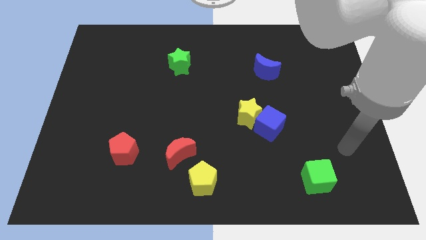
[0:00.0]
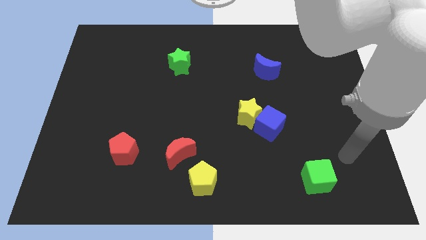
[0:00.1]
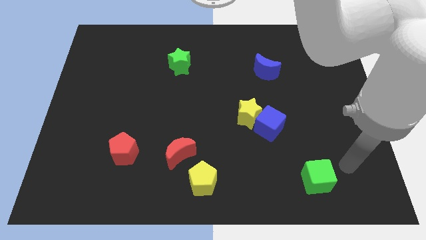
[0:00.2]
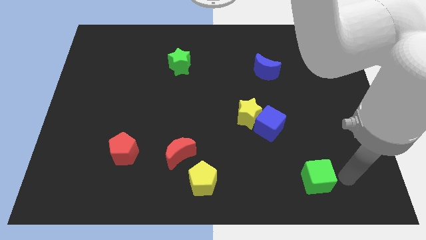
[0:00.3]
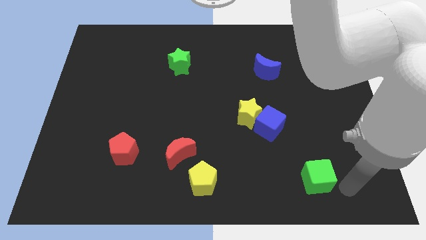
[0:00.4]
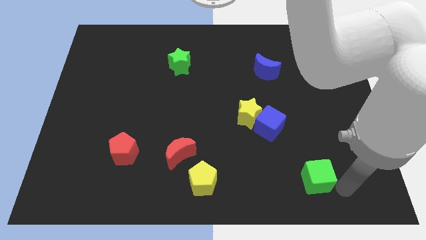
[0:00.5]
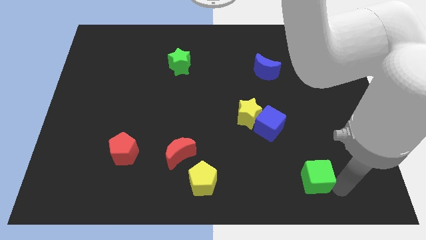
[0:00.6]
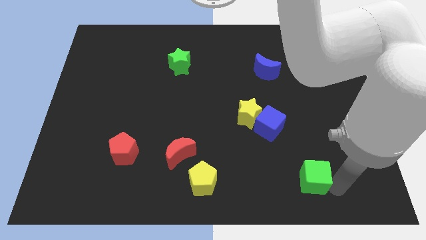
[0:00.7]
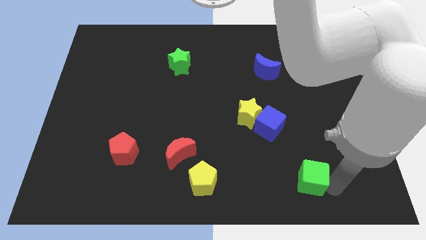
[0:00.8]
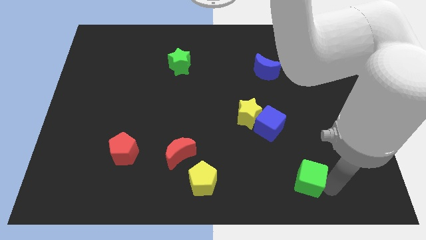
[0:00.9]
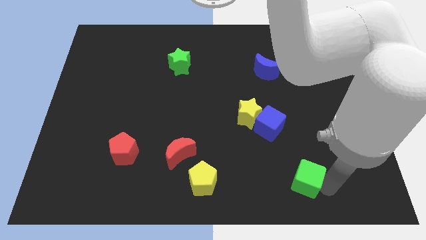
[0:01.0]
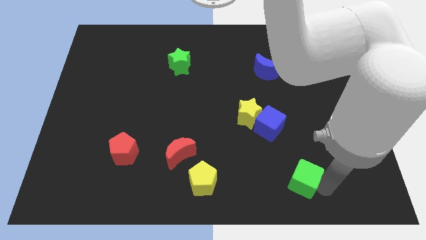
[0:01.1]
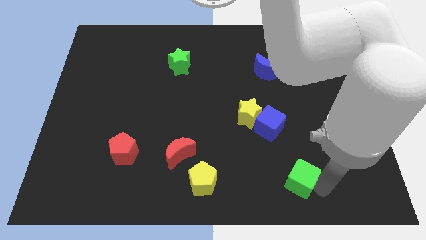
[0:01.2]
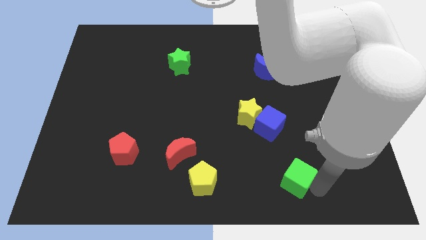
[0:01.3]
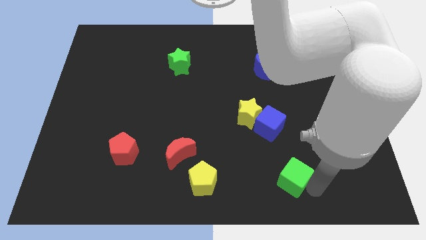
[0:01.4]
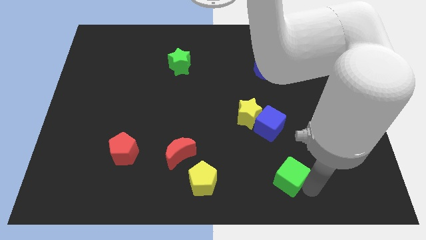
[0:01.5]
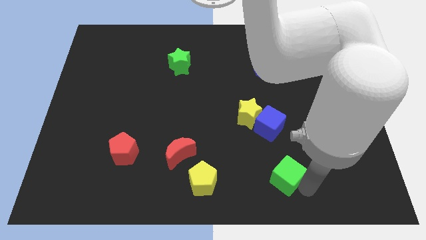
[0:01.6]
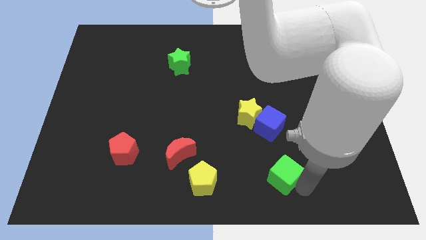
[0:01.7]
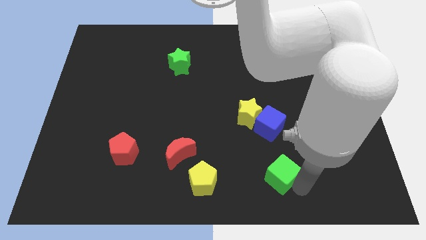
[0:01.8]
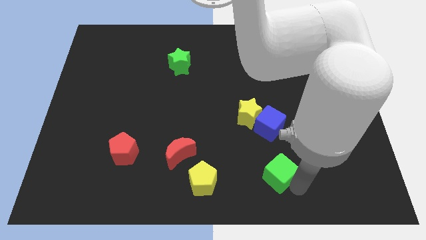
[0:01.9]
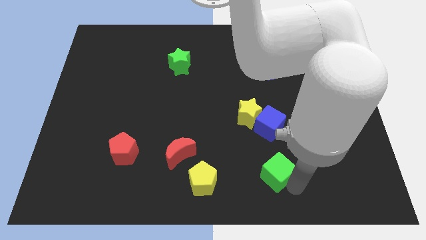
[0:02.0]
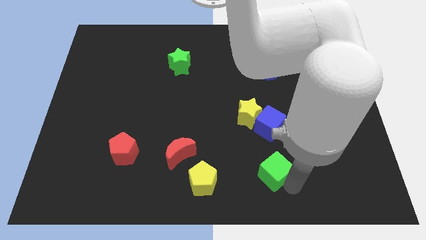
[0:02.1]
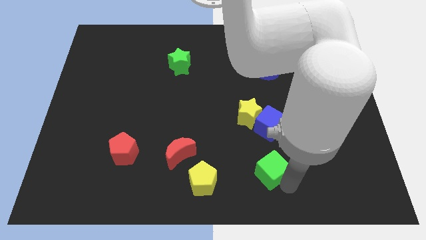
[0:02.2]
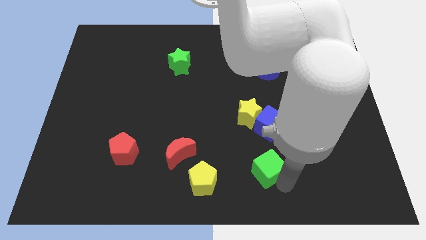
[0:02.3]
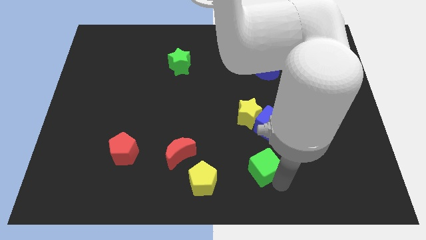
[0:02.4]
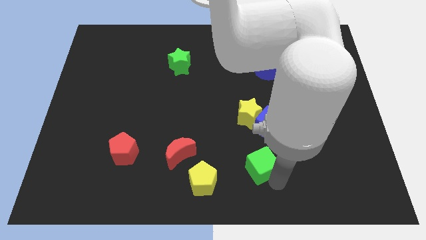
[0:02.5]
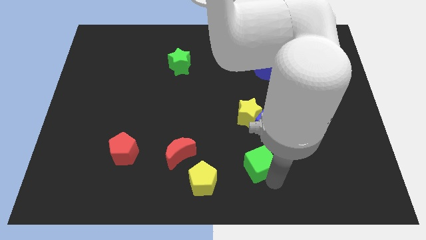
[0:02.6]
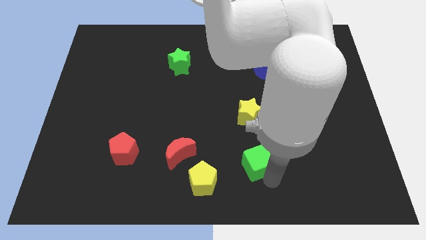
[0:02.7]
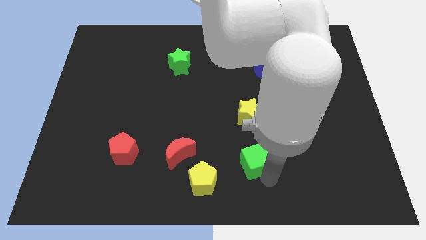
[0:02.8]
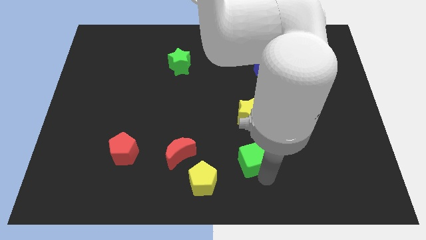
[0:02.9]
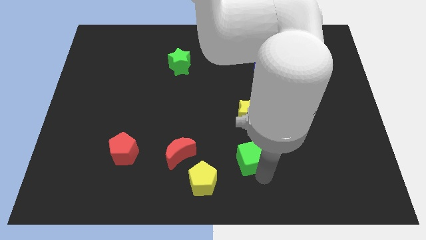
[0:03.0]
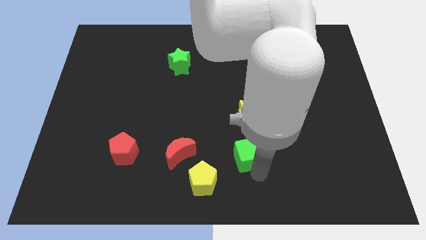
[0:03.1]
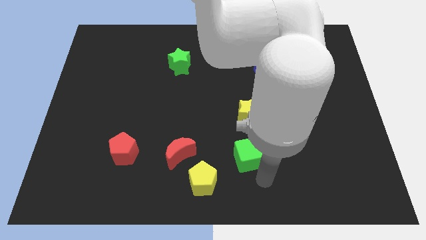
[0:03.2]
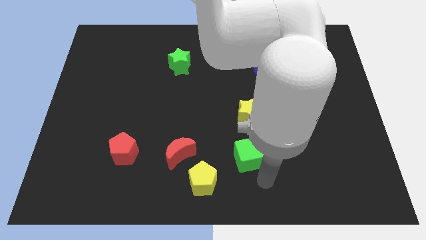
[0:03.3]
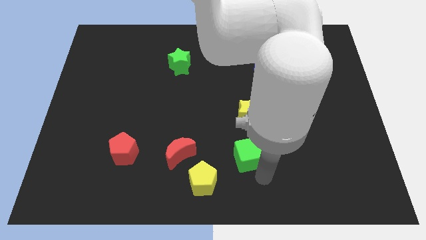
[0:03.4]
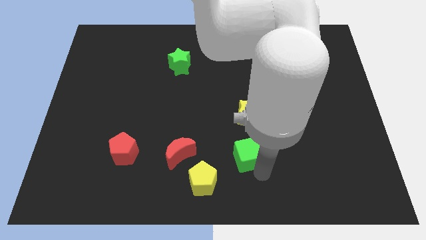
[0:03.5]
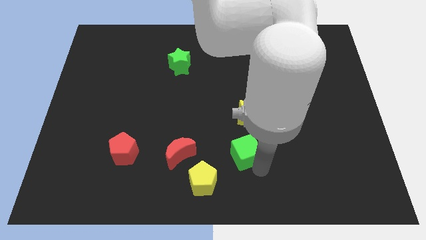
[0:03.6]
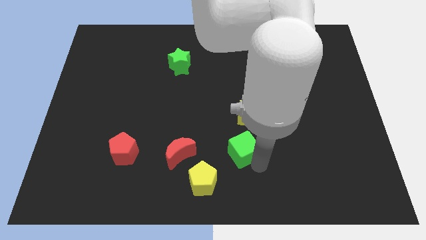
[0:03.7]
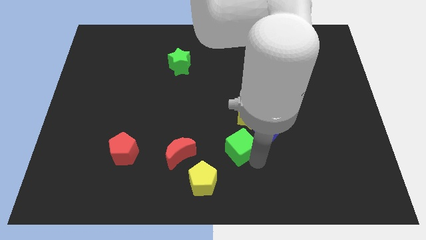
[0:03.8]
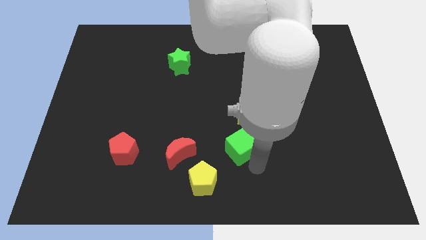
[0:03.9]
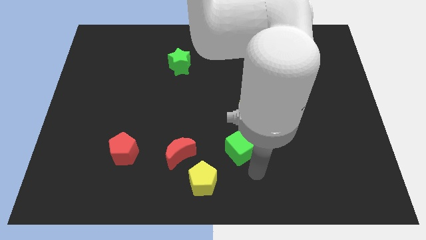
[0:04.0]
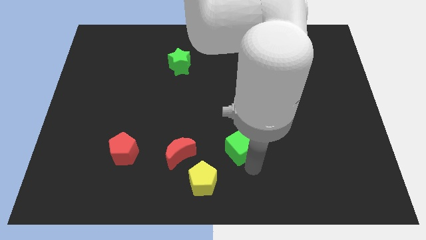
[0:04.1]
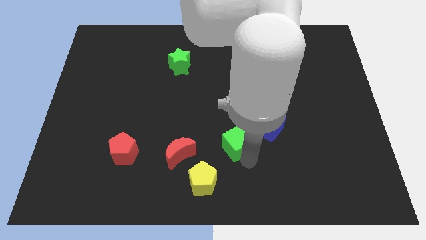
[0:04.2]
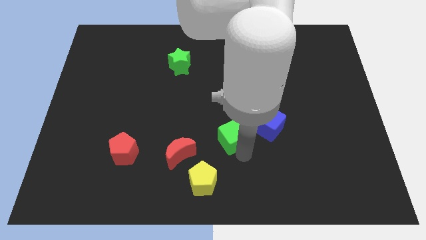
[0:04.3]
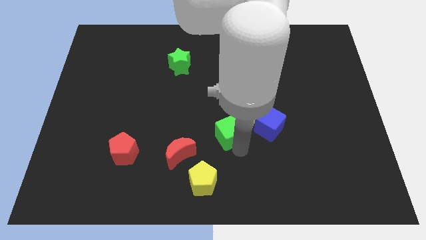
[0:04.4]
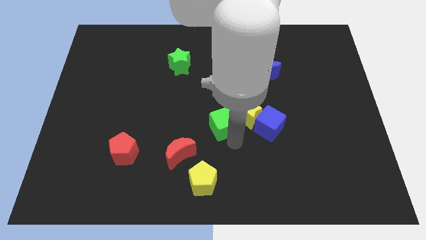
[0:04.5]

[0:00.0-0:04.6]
slide the green cube up and to the left

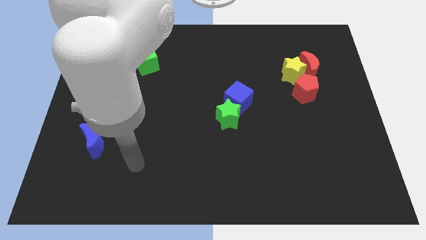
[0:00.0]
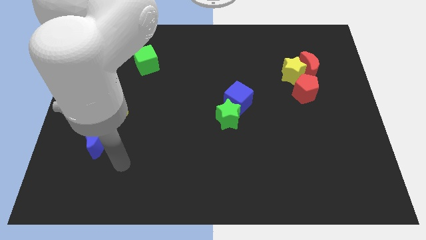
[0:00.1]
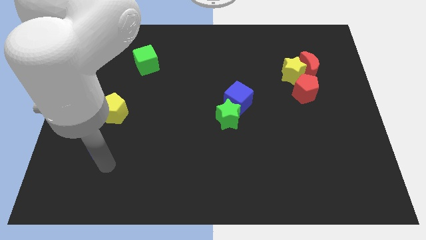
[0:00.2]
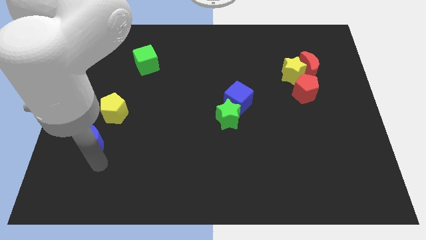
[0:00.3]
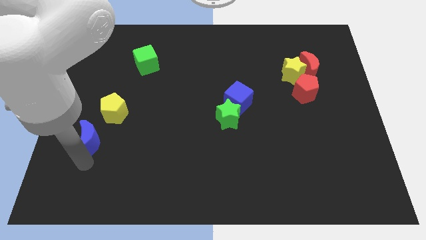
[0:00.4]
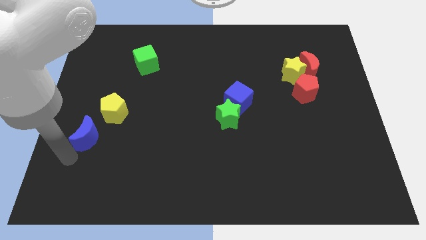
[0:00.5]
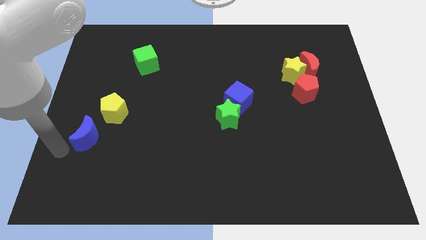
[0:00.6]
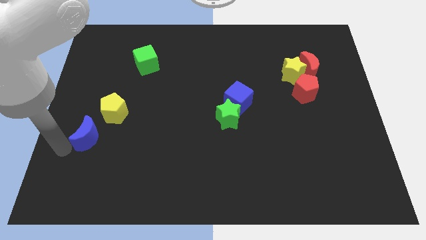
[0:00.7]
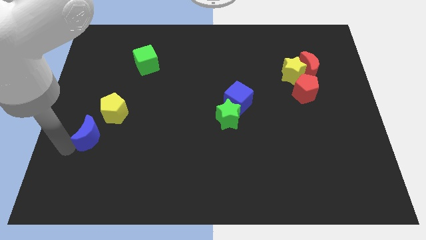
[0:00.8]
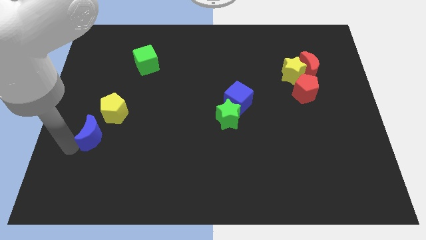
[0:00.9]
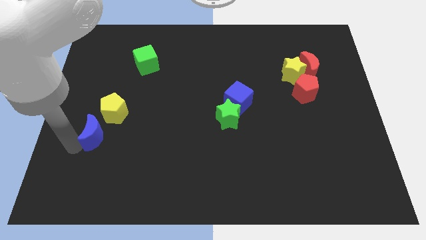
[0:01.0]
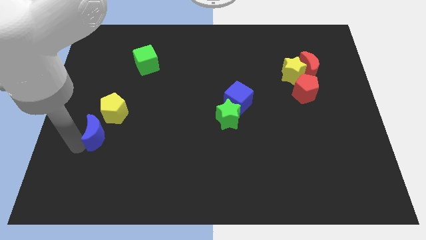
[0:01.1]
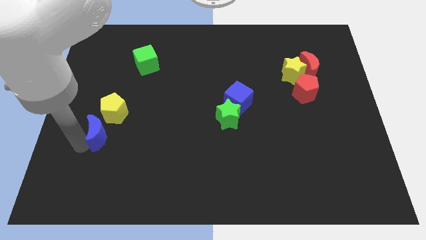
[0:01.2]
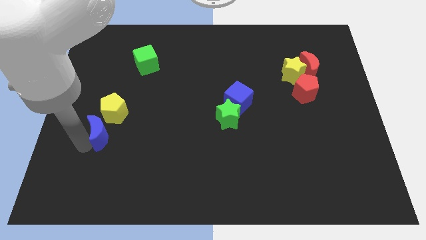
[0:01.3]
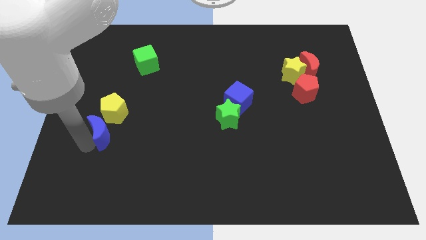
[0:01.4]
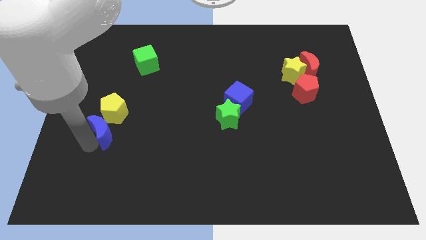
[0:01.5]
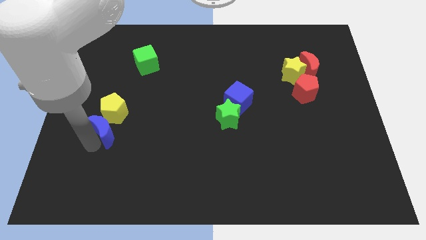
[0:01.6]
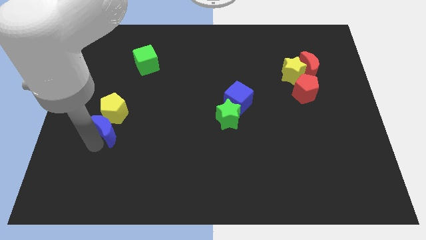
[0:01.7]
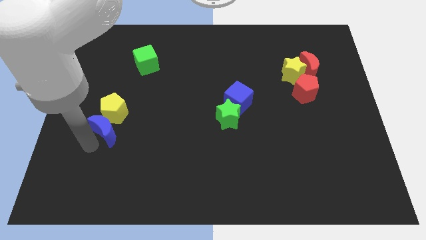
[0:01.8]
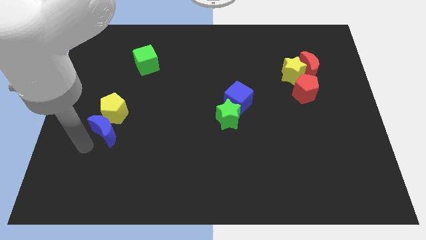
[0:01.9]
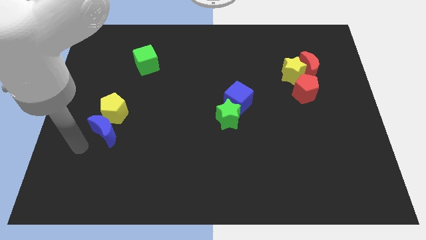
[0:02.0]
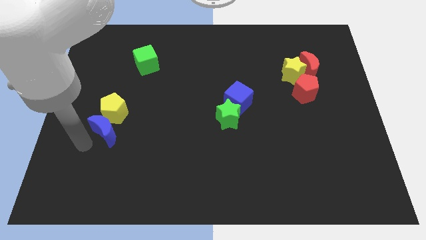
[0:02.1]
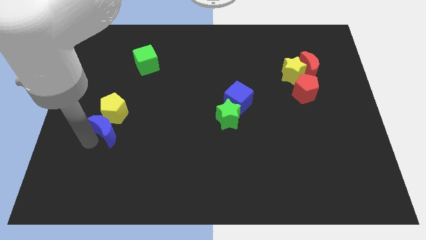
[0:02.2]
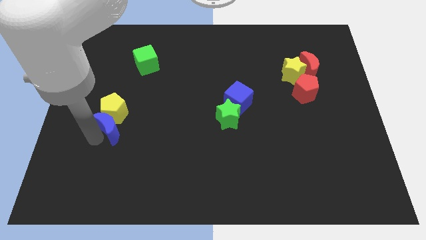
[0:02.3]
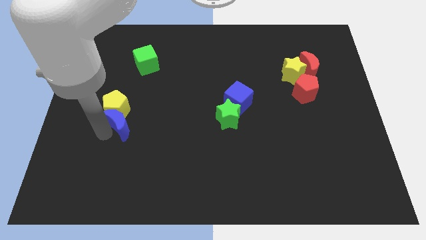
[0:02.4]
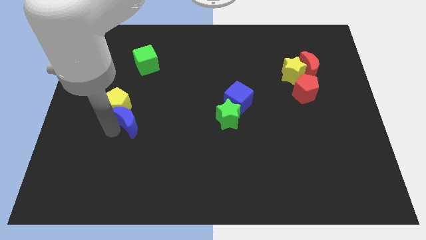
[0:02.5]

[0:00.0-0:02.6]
slightly push the blue moon upwards and then right

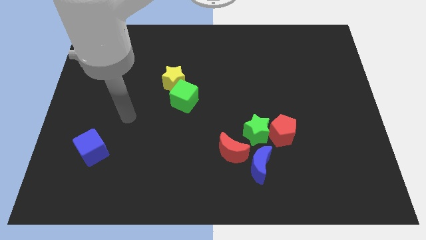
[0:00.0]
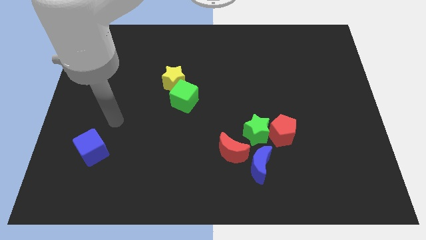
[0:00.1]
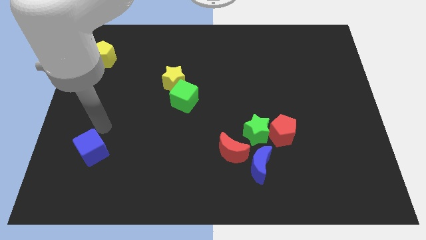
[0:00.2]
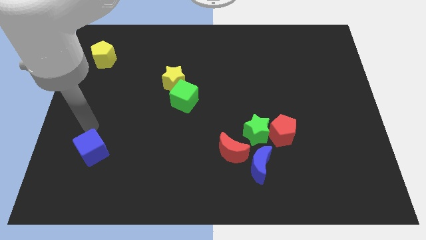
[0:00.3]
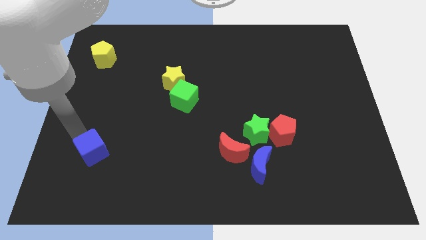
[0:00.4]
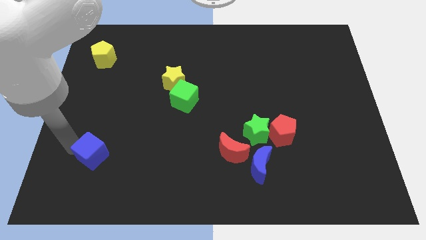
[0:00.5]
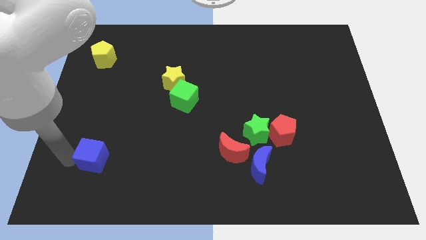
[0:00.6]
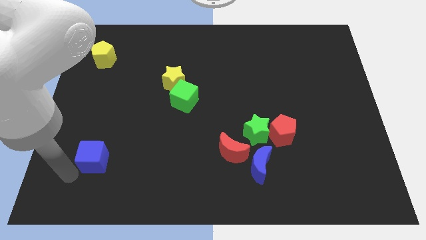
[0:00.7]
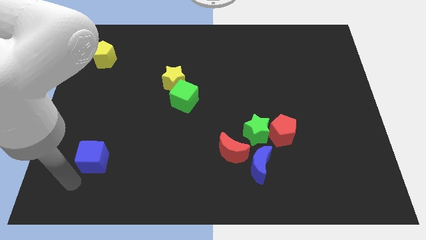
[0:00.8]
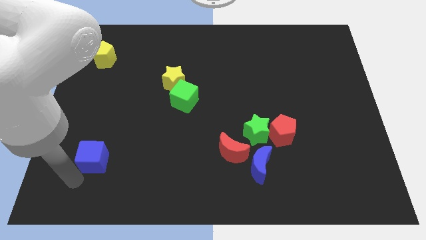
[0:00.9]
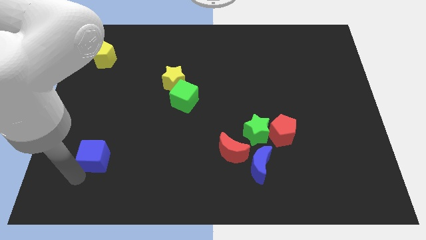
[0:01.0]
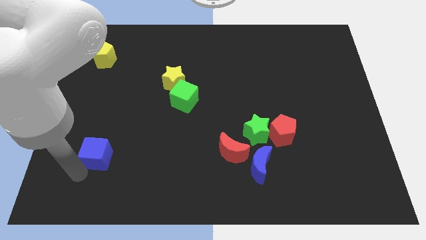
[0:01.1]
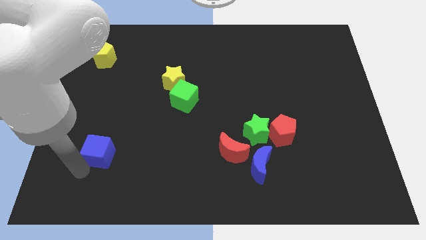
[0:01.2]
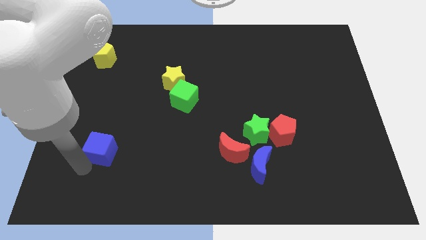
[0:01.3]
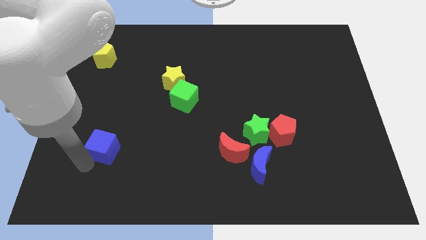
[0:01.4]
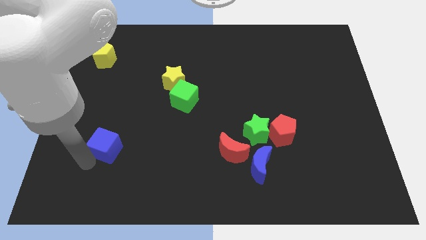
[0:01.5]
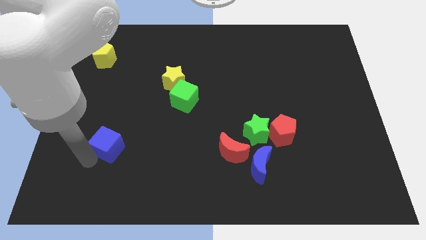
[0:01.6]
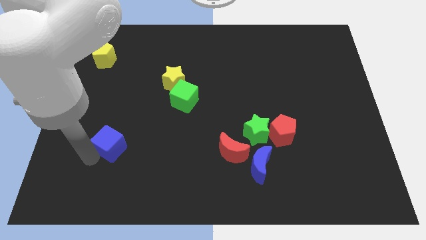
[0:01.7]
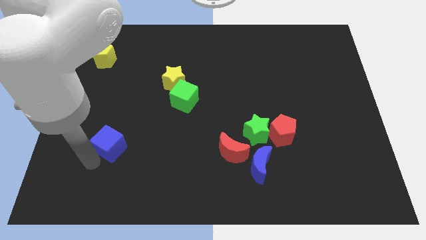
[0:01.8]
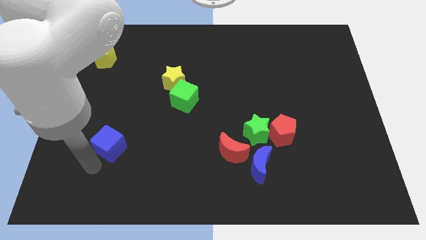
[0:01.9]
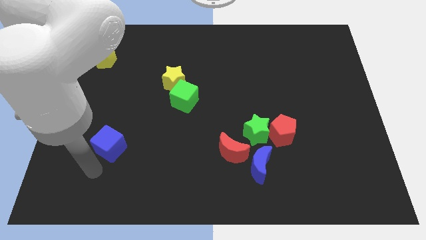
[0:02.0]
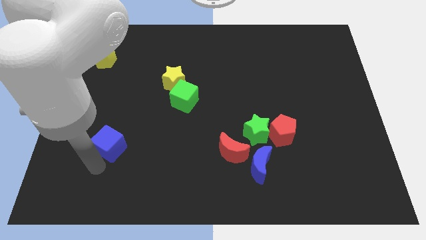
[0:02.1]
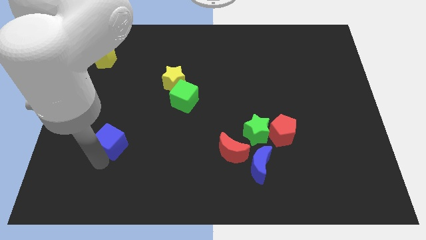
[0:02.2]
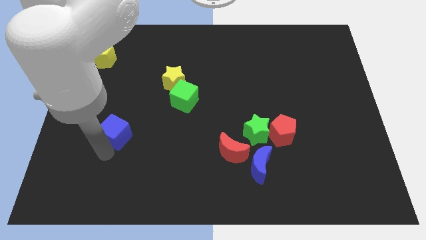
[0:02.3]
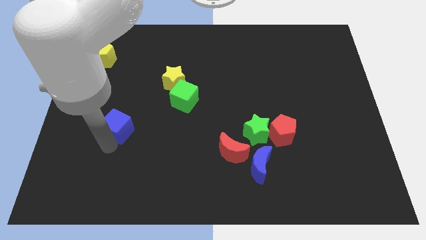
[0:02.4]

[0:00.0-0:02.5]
slide the blue cube a bit diagonally up and right
